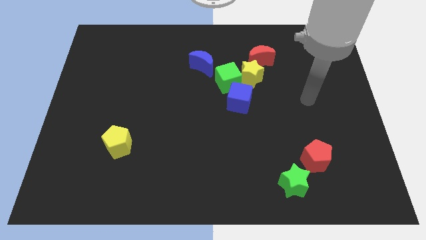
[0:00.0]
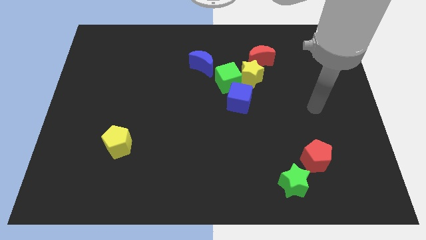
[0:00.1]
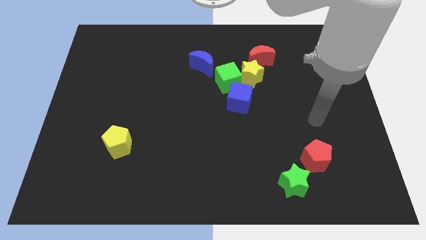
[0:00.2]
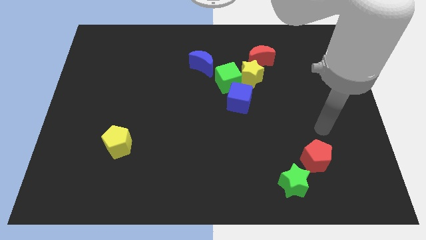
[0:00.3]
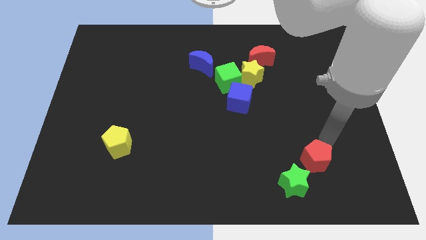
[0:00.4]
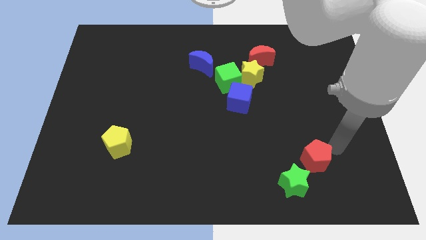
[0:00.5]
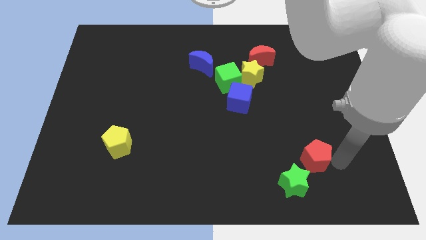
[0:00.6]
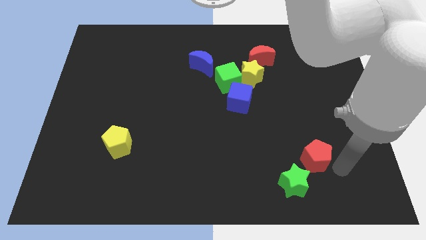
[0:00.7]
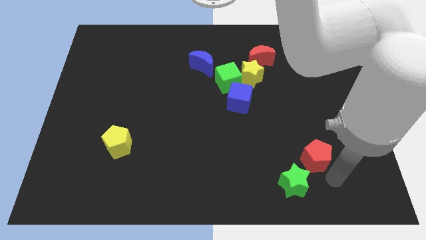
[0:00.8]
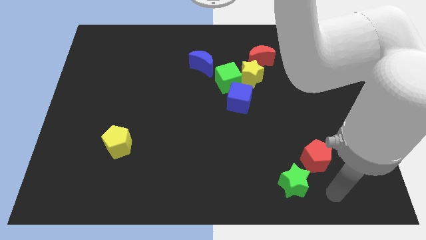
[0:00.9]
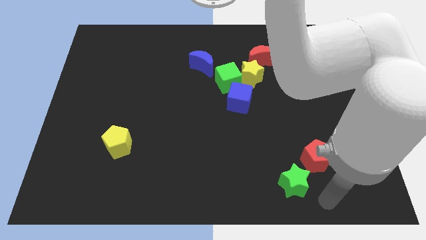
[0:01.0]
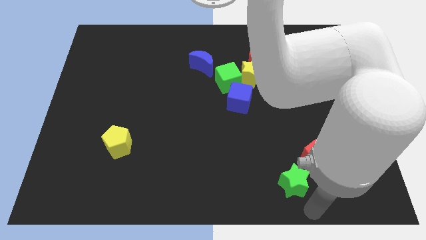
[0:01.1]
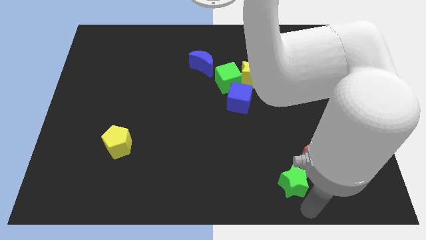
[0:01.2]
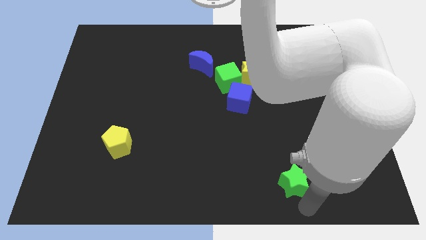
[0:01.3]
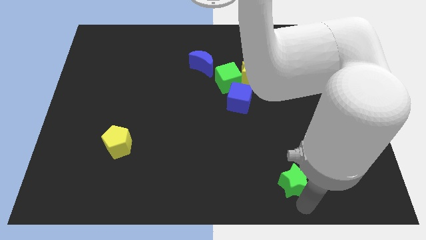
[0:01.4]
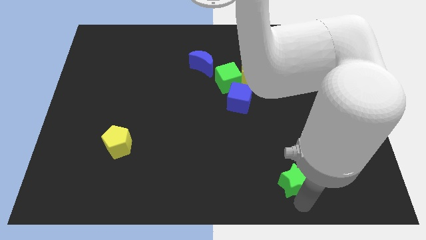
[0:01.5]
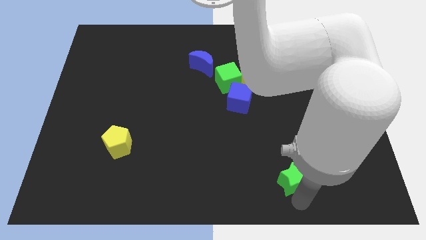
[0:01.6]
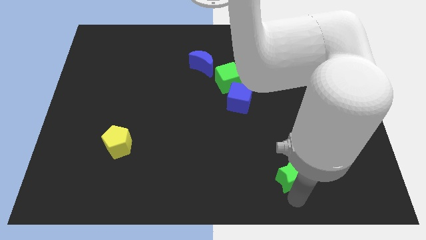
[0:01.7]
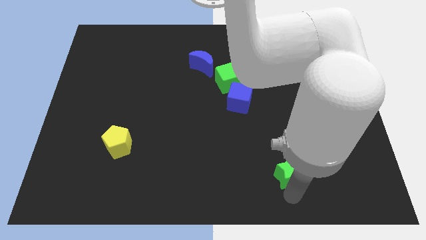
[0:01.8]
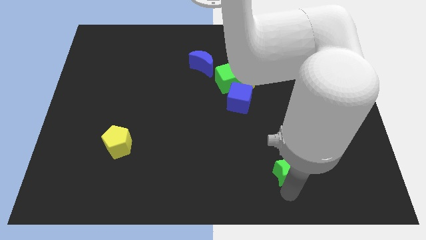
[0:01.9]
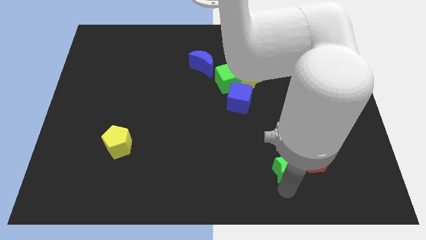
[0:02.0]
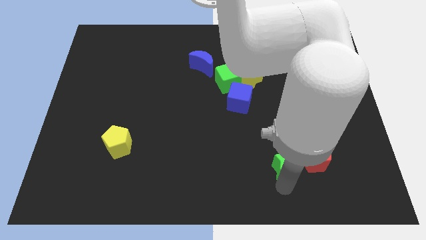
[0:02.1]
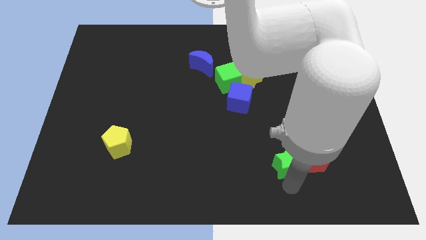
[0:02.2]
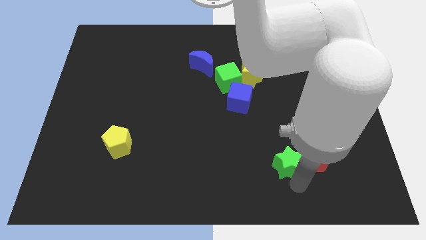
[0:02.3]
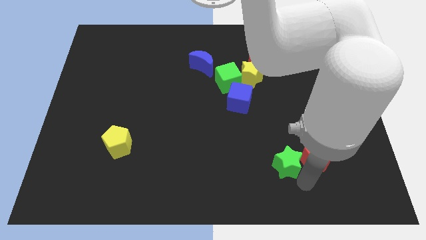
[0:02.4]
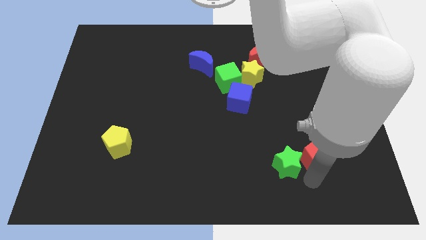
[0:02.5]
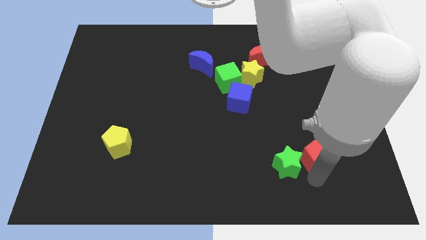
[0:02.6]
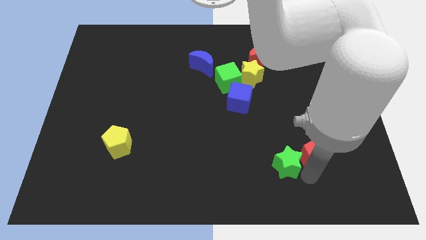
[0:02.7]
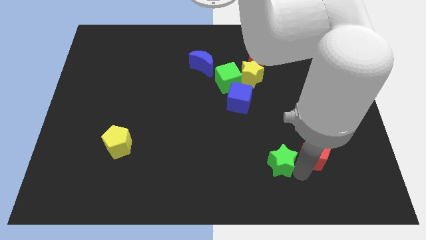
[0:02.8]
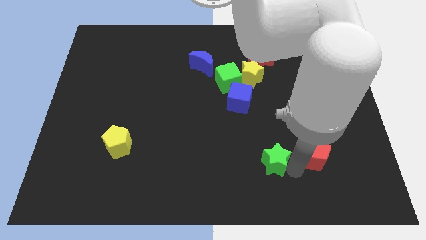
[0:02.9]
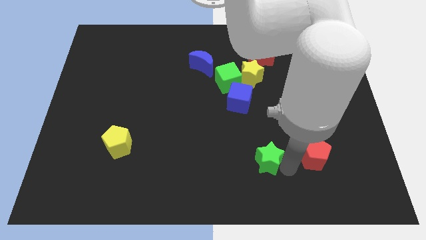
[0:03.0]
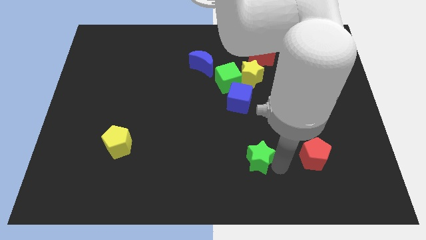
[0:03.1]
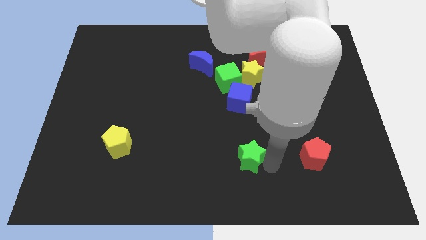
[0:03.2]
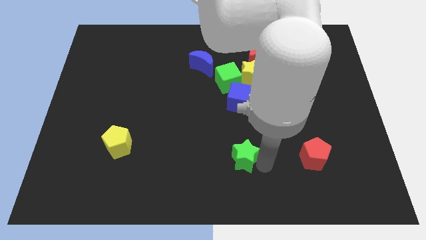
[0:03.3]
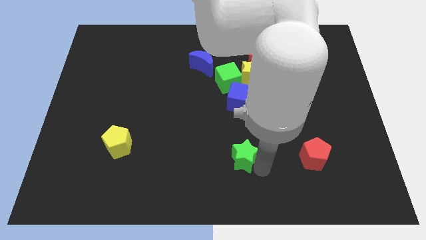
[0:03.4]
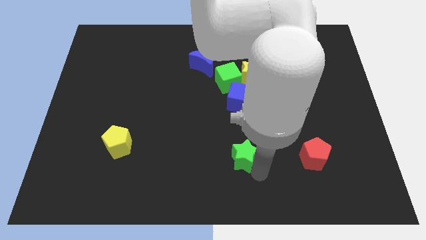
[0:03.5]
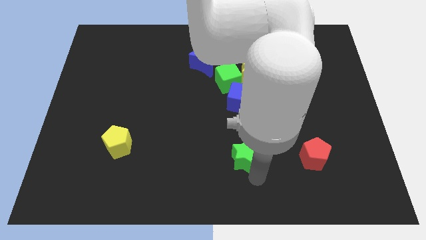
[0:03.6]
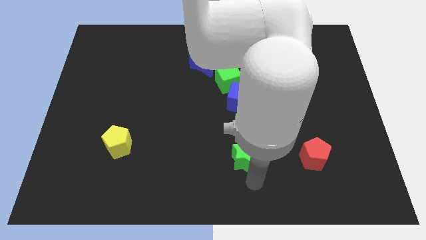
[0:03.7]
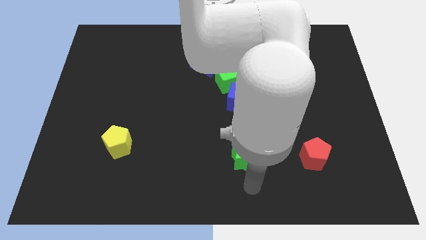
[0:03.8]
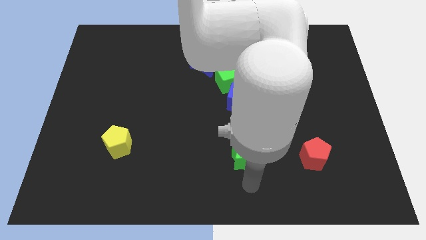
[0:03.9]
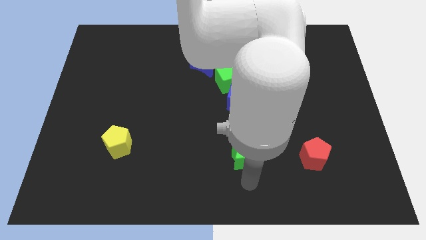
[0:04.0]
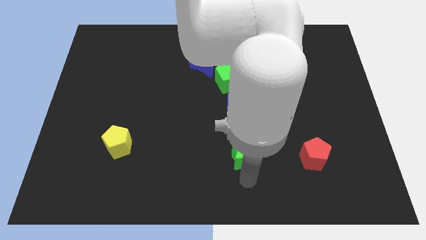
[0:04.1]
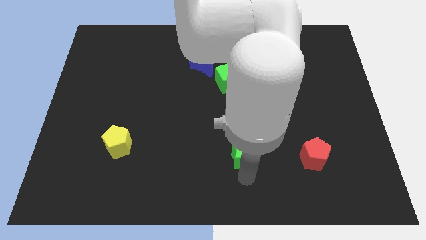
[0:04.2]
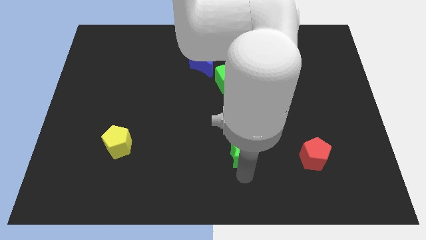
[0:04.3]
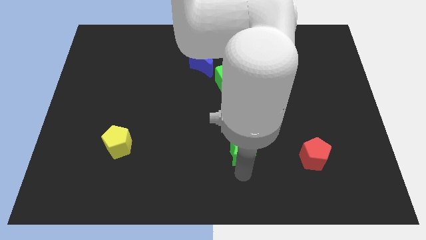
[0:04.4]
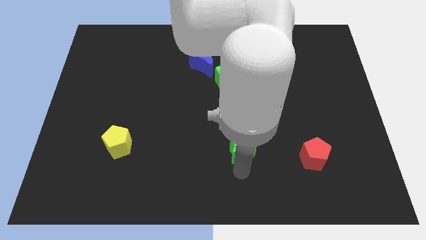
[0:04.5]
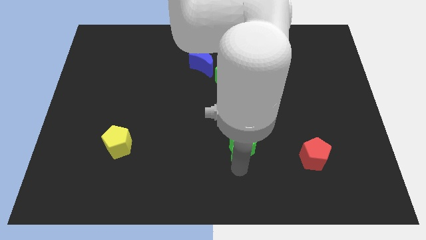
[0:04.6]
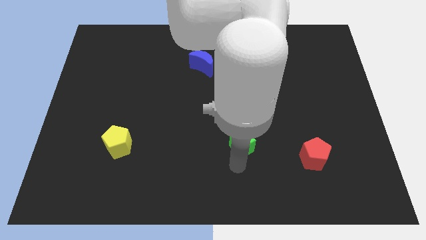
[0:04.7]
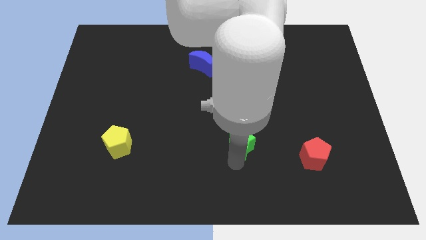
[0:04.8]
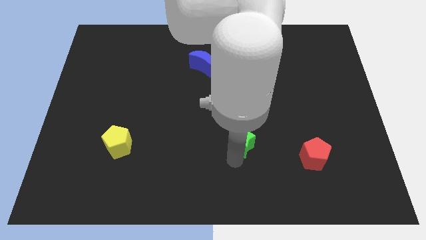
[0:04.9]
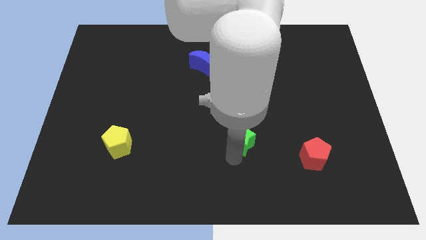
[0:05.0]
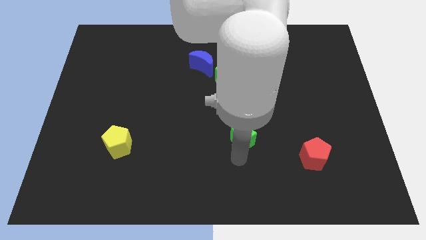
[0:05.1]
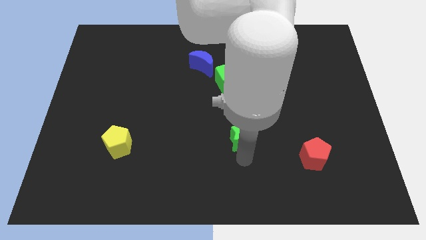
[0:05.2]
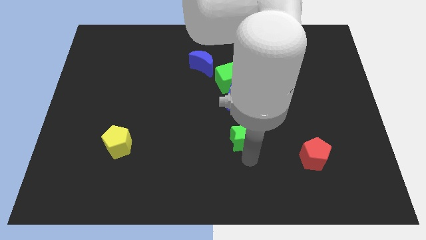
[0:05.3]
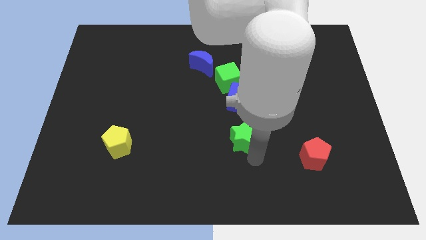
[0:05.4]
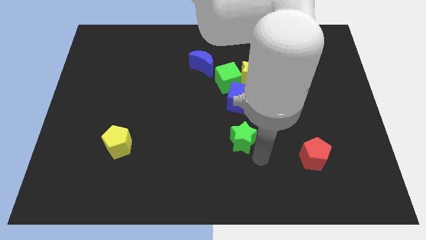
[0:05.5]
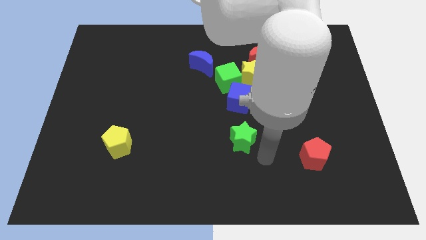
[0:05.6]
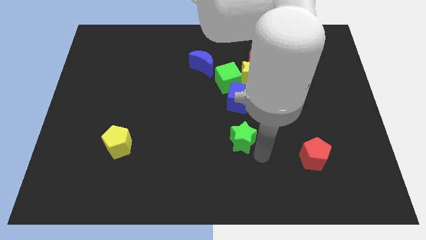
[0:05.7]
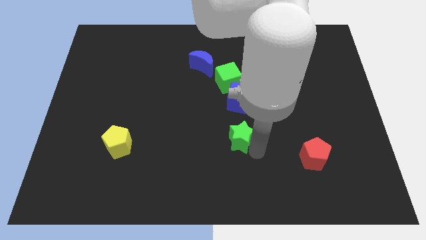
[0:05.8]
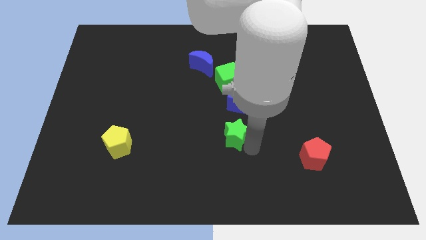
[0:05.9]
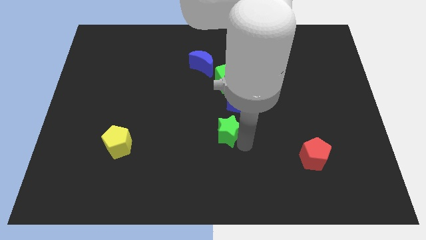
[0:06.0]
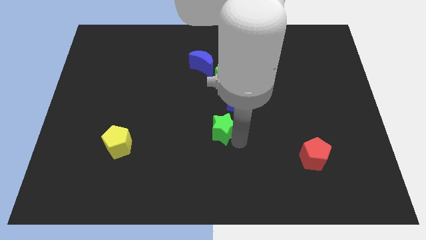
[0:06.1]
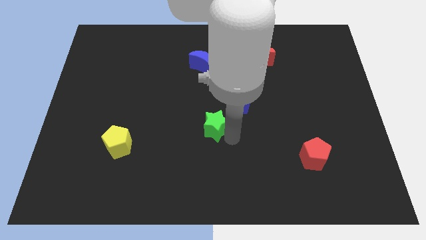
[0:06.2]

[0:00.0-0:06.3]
move the green star diagonally up and left

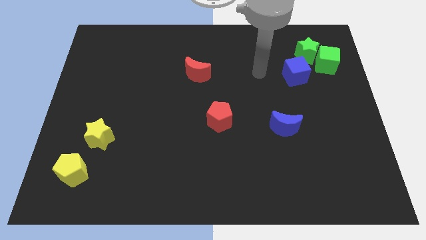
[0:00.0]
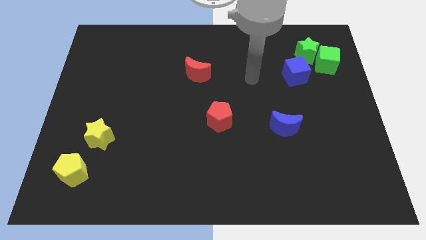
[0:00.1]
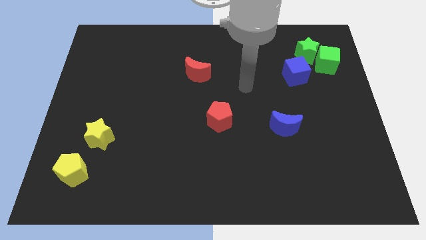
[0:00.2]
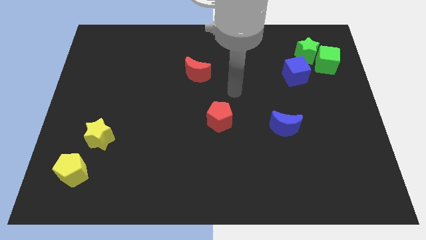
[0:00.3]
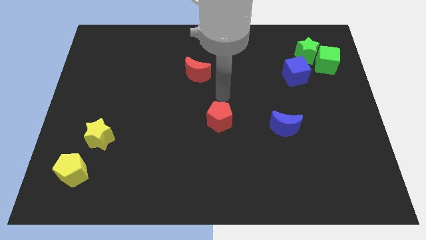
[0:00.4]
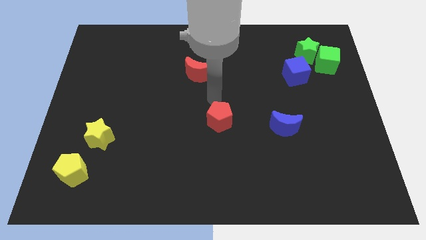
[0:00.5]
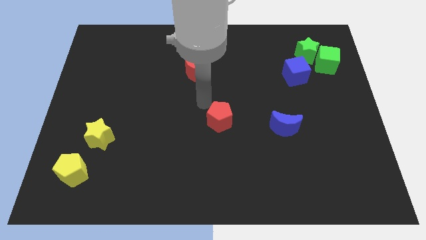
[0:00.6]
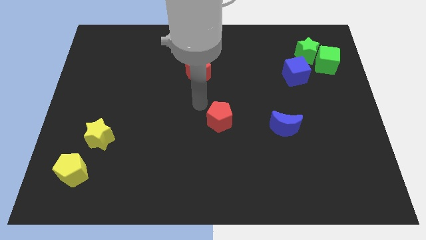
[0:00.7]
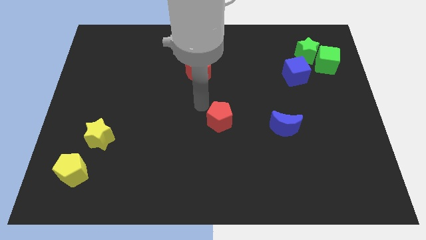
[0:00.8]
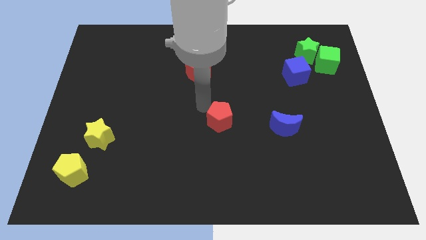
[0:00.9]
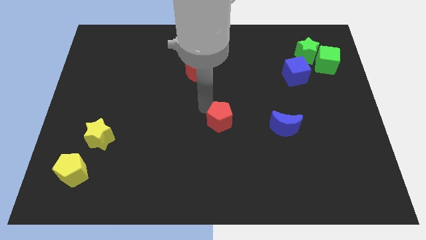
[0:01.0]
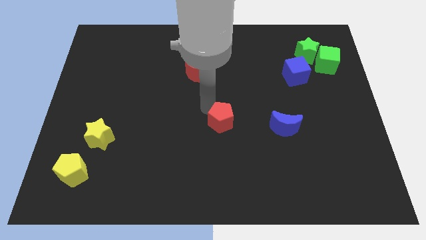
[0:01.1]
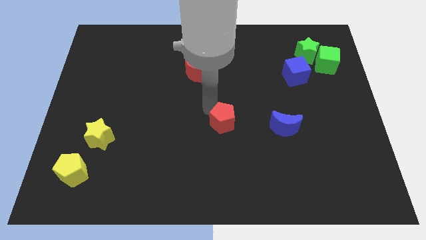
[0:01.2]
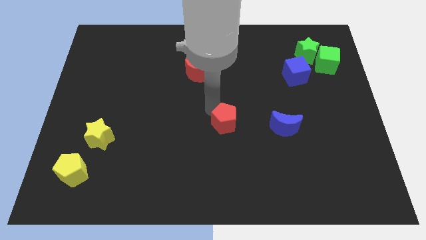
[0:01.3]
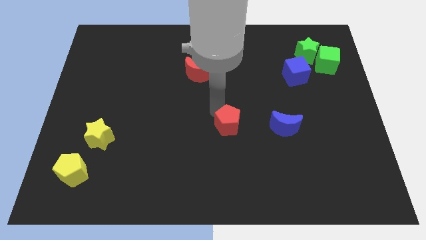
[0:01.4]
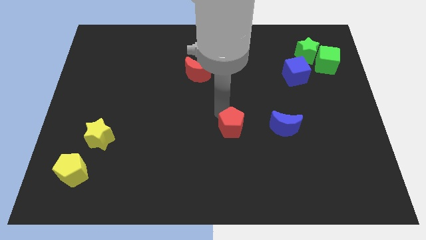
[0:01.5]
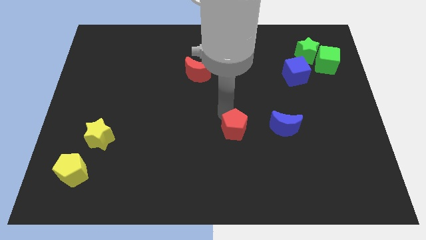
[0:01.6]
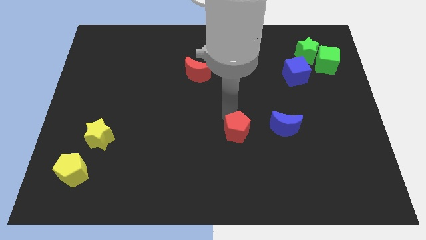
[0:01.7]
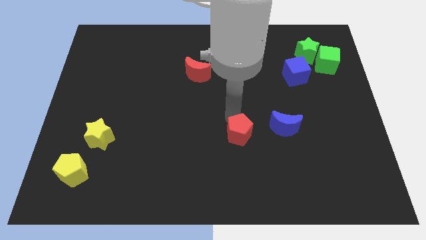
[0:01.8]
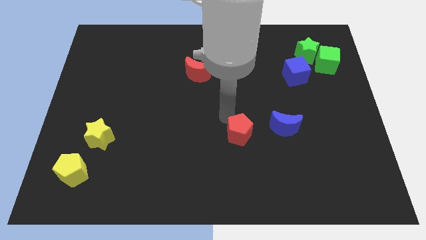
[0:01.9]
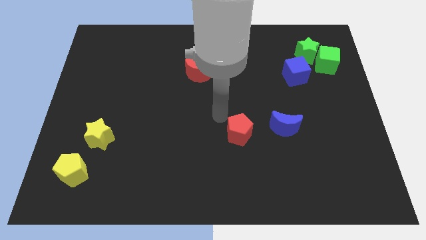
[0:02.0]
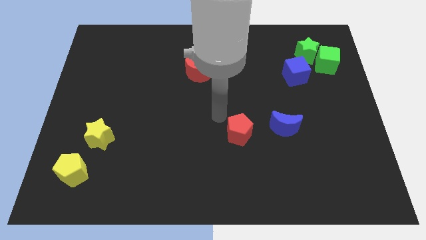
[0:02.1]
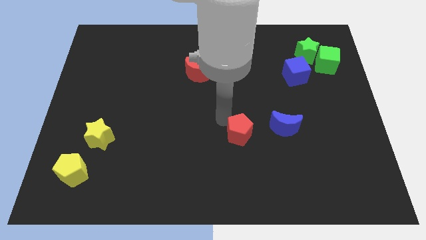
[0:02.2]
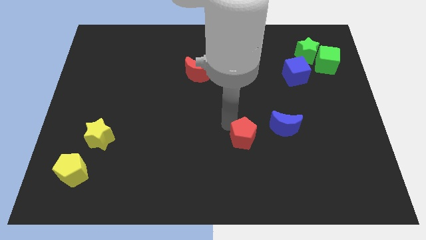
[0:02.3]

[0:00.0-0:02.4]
slide the red pentagon a bit down and then right
